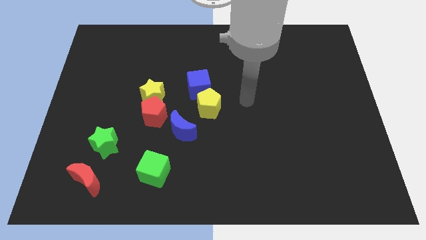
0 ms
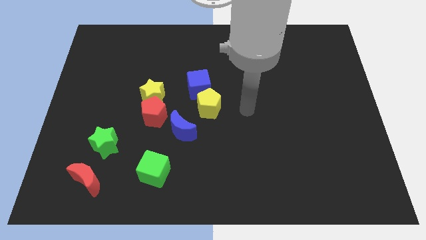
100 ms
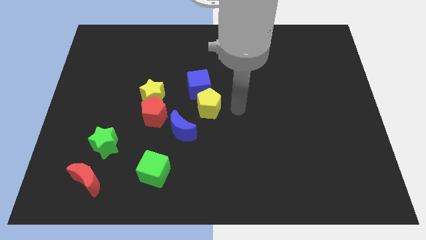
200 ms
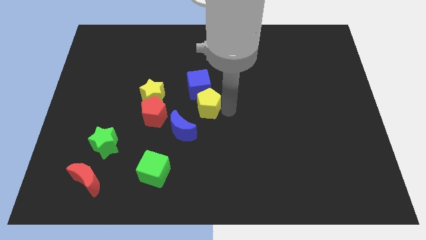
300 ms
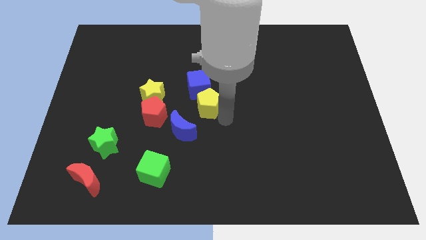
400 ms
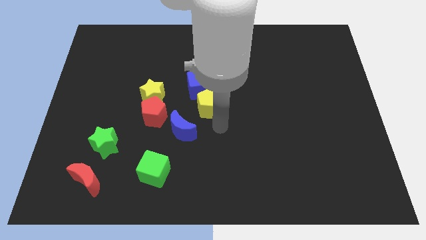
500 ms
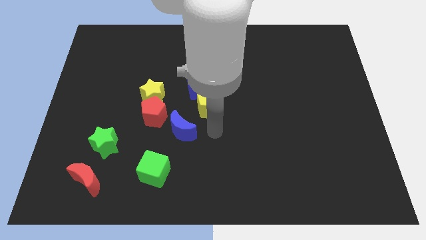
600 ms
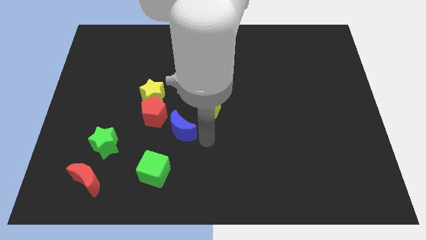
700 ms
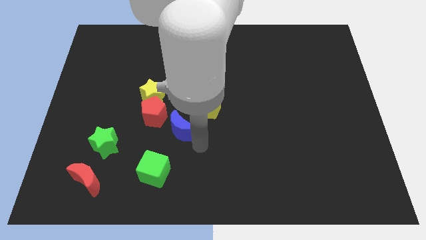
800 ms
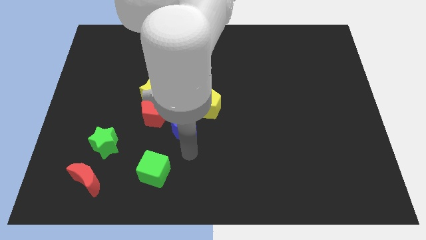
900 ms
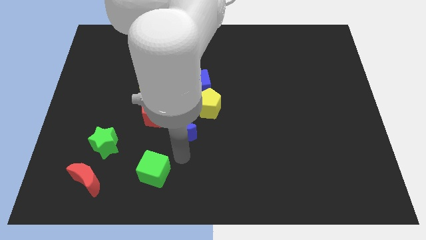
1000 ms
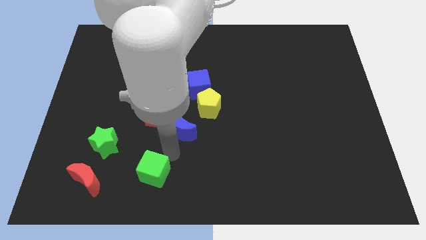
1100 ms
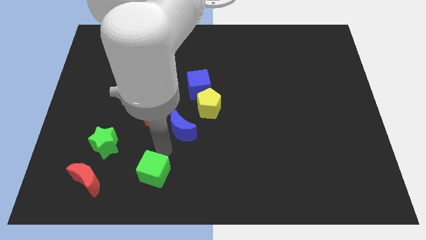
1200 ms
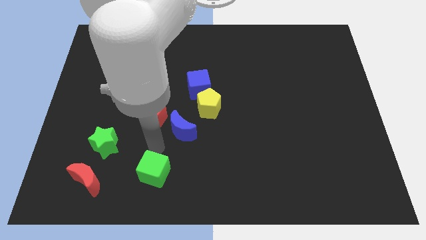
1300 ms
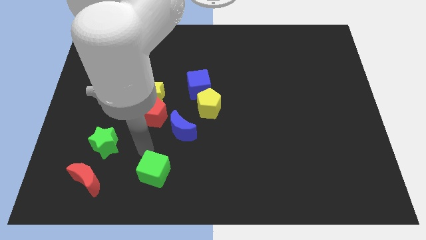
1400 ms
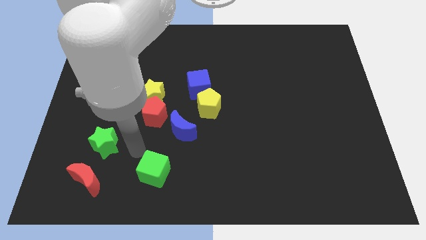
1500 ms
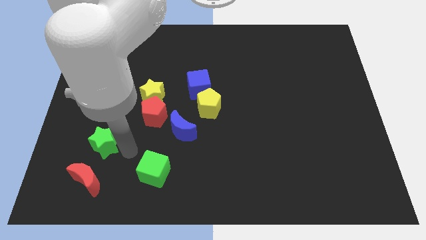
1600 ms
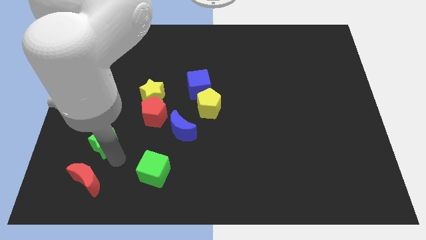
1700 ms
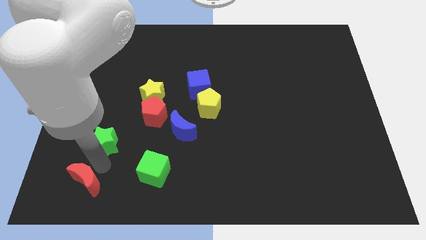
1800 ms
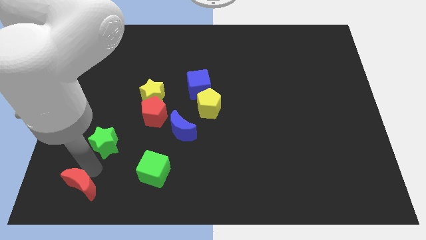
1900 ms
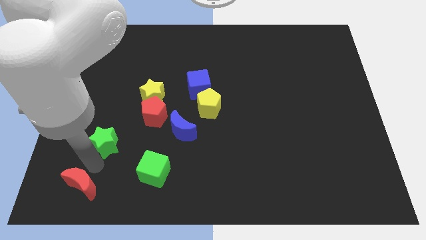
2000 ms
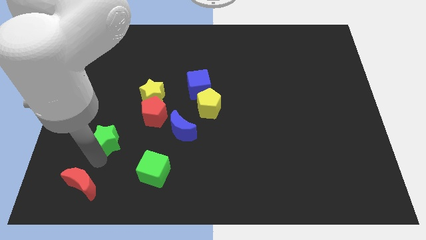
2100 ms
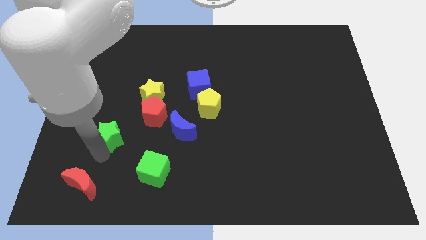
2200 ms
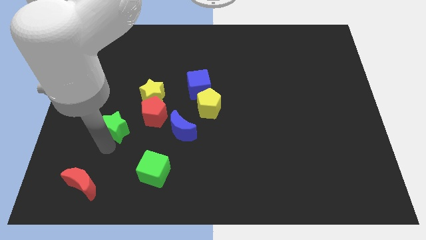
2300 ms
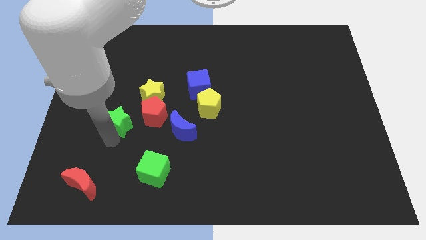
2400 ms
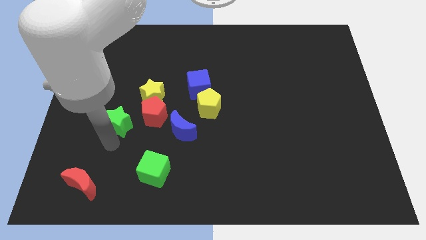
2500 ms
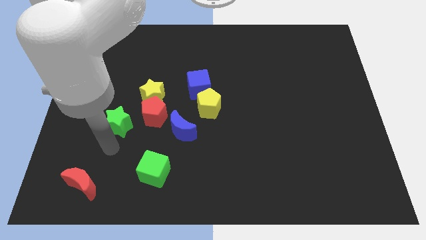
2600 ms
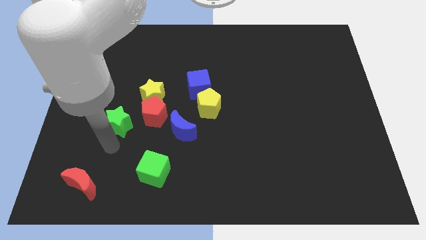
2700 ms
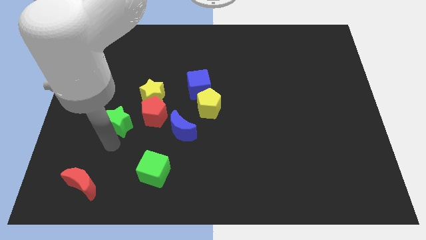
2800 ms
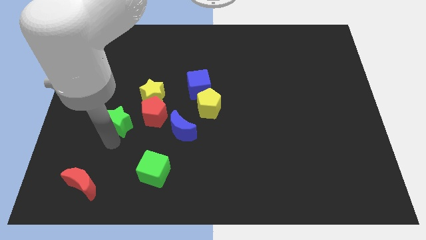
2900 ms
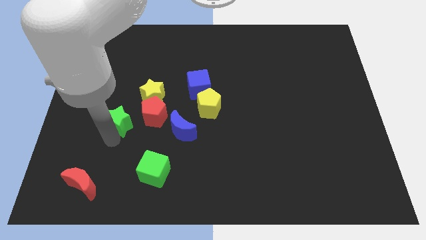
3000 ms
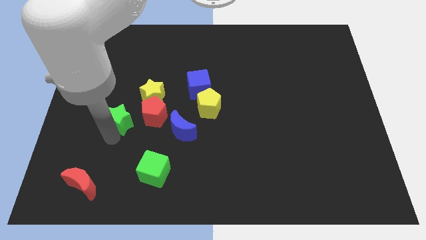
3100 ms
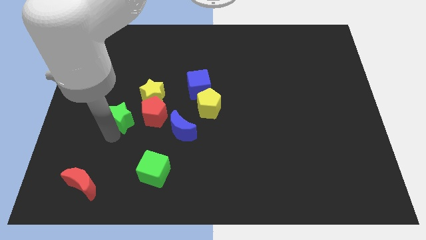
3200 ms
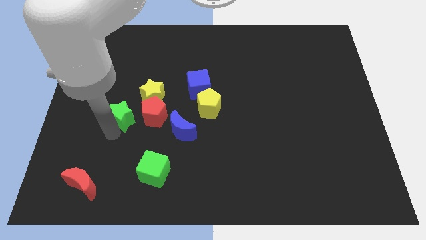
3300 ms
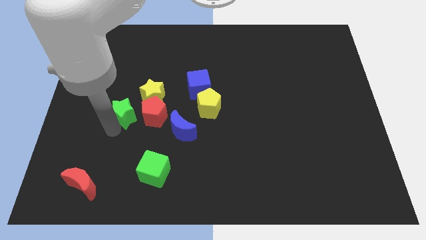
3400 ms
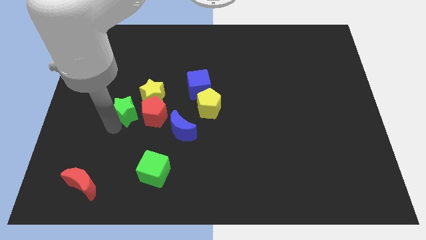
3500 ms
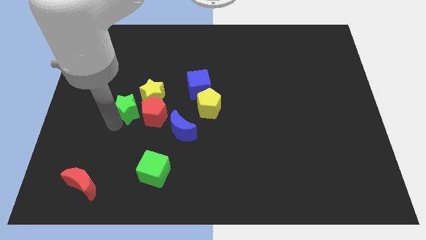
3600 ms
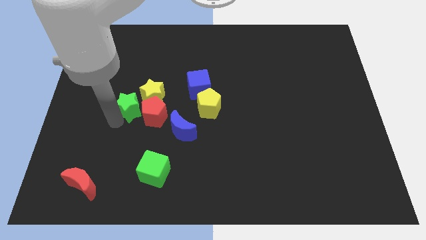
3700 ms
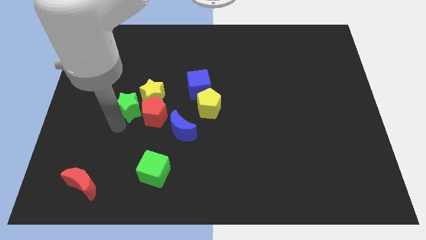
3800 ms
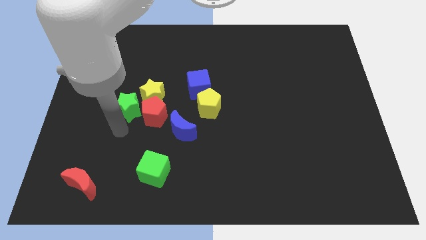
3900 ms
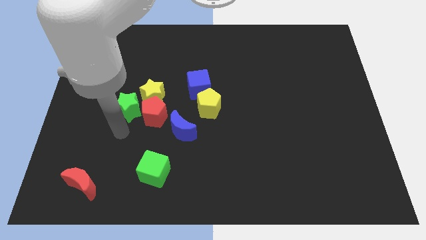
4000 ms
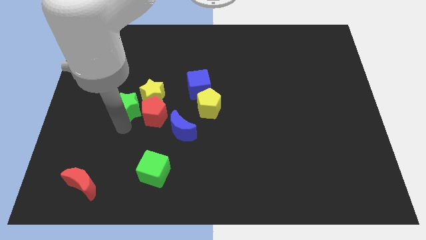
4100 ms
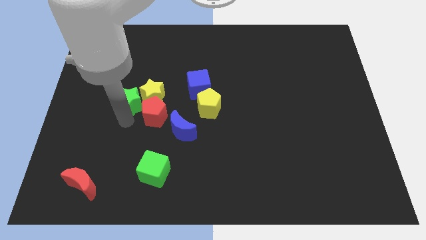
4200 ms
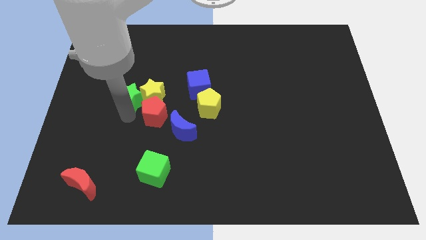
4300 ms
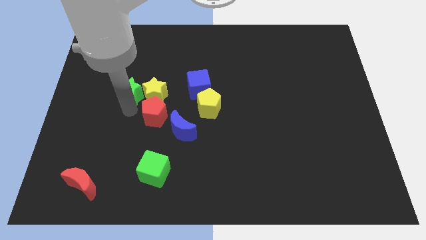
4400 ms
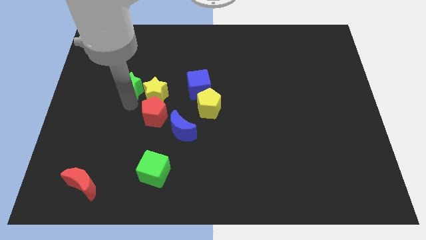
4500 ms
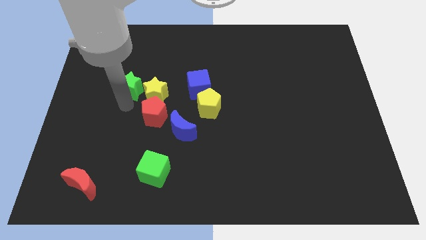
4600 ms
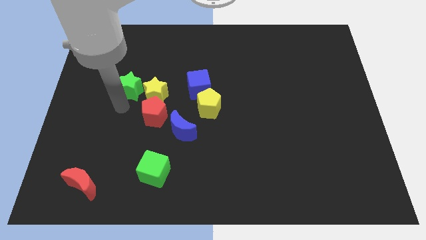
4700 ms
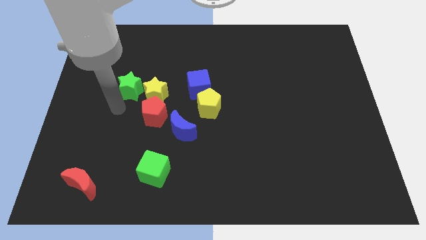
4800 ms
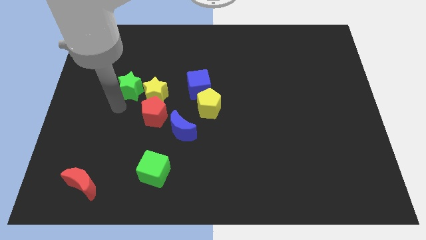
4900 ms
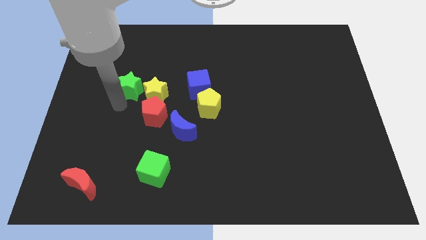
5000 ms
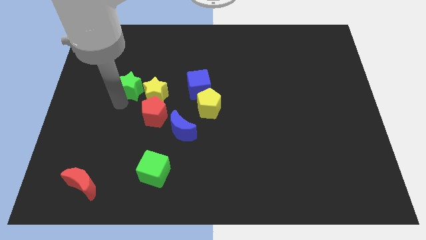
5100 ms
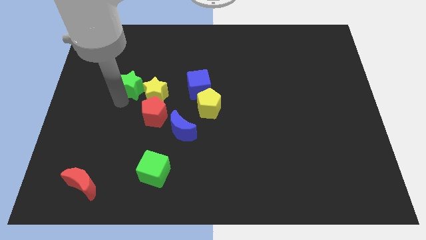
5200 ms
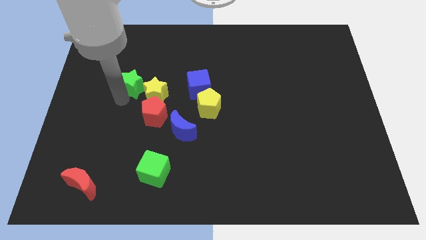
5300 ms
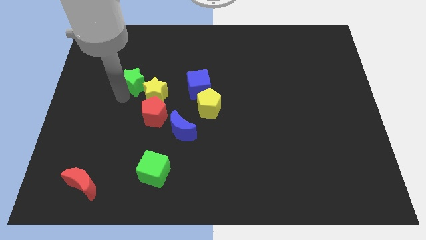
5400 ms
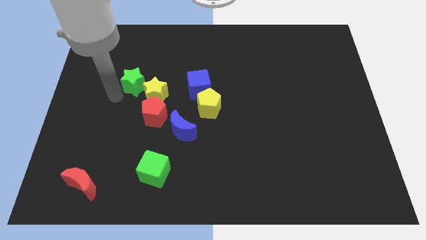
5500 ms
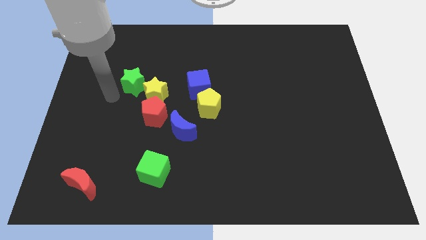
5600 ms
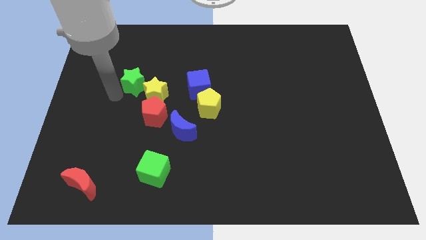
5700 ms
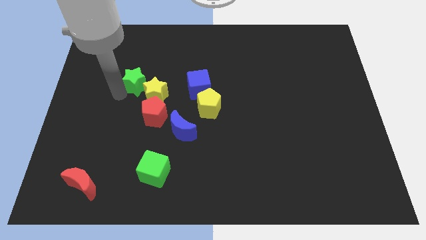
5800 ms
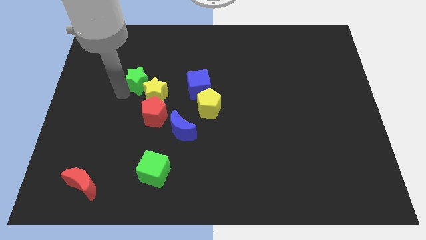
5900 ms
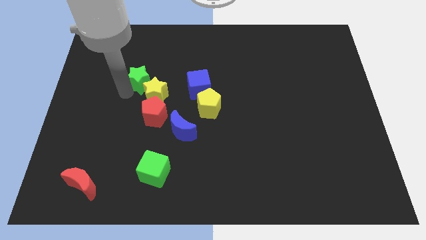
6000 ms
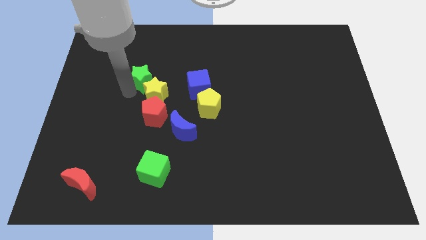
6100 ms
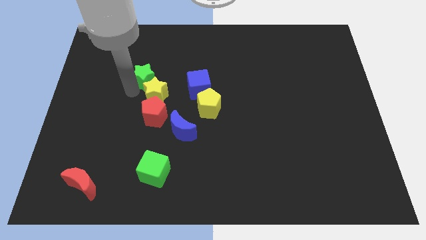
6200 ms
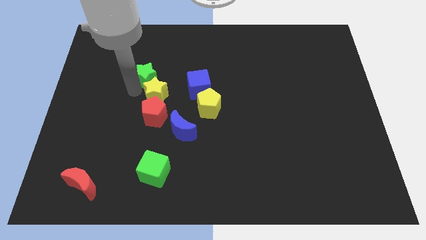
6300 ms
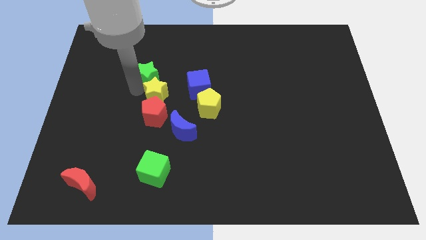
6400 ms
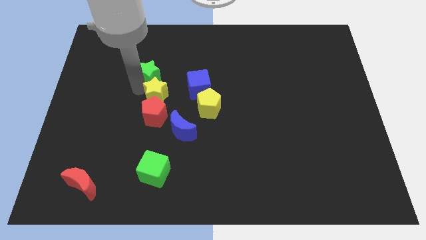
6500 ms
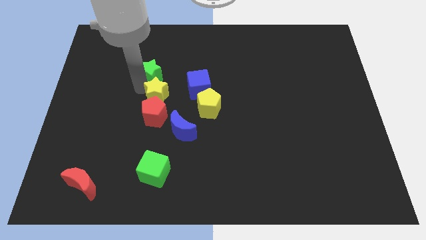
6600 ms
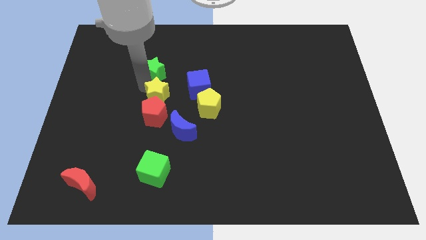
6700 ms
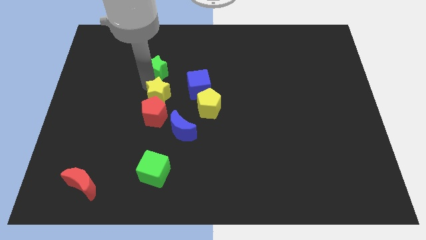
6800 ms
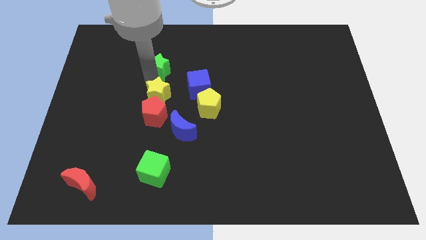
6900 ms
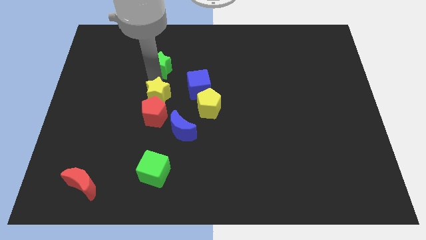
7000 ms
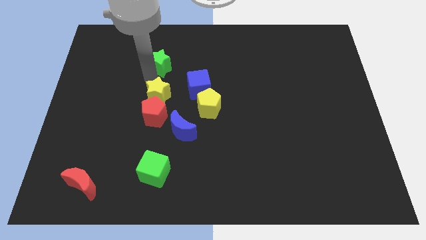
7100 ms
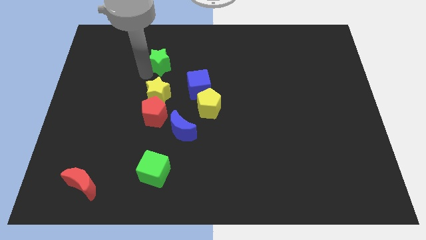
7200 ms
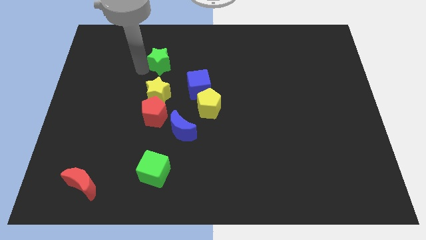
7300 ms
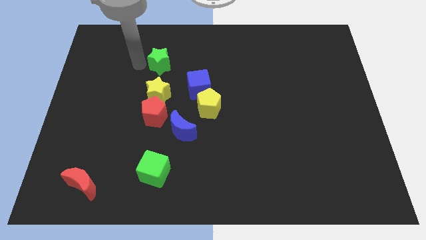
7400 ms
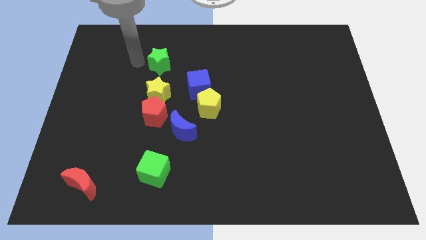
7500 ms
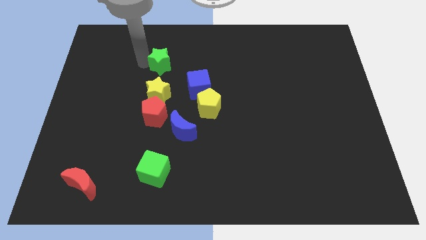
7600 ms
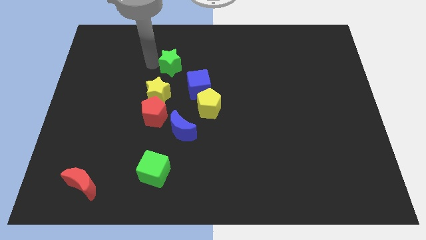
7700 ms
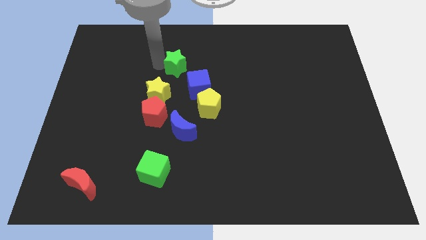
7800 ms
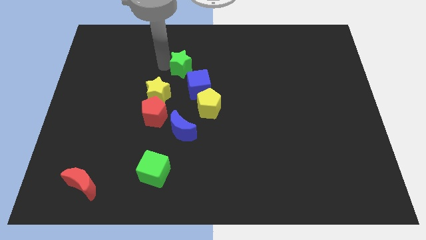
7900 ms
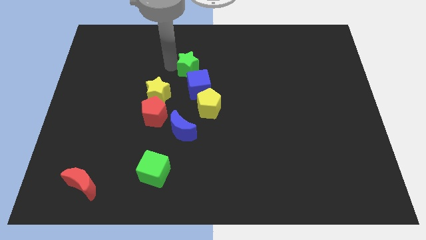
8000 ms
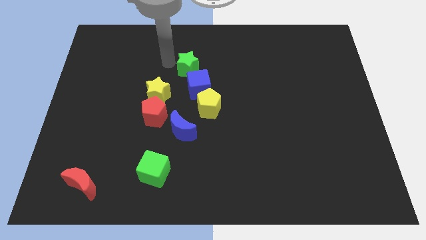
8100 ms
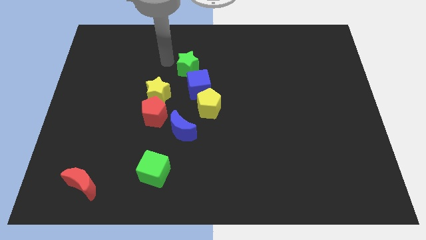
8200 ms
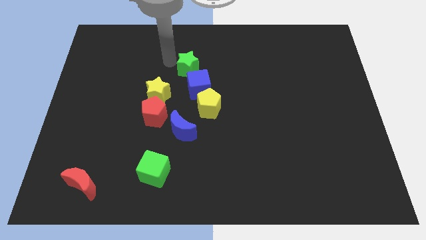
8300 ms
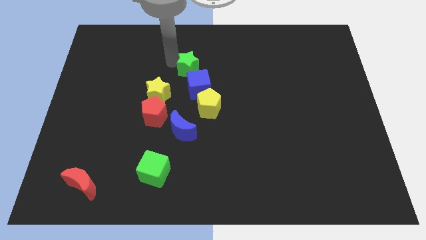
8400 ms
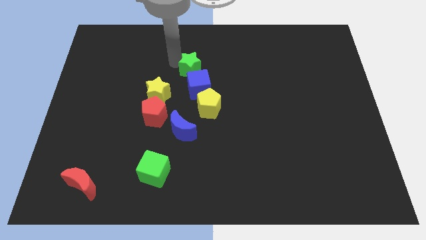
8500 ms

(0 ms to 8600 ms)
push the green star to the top of the yellow pentagon
